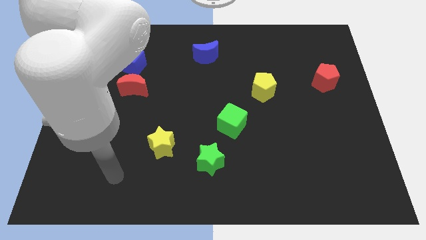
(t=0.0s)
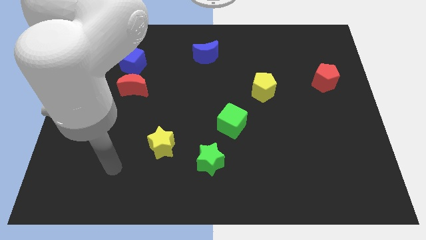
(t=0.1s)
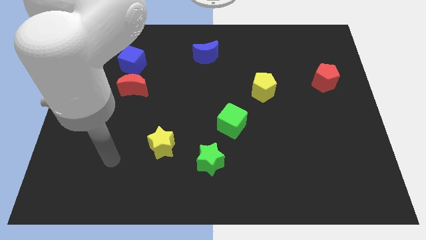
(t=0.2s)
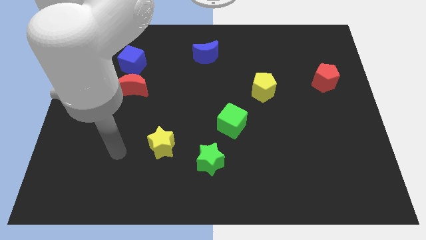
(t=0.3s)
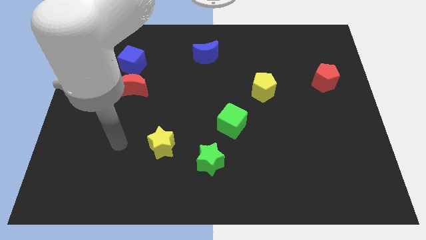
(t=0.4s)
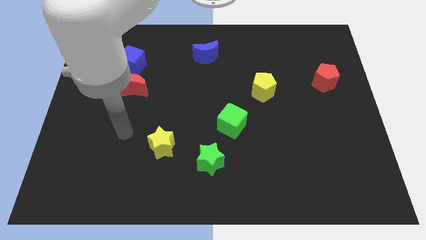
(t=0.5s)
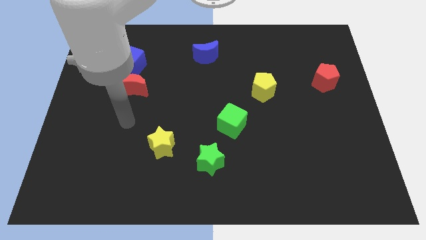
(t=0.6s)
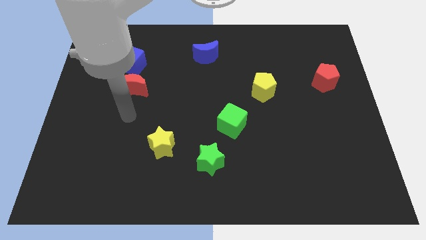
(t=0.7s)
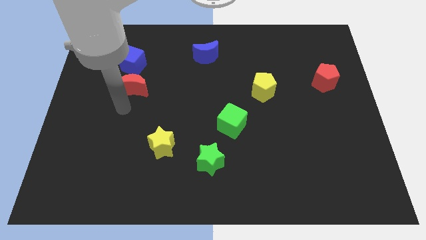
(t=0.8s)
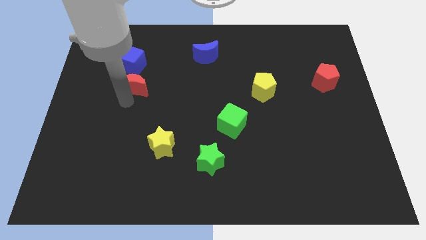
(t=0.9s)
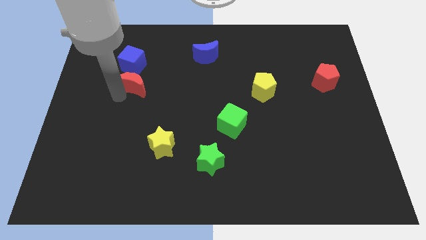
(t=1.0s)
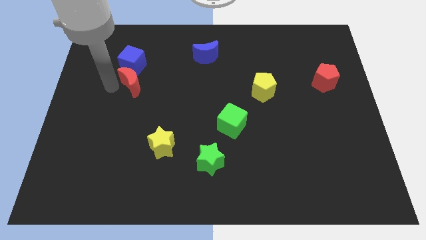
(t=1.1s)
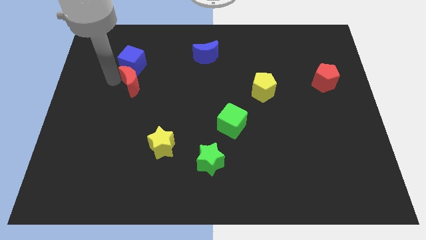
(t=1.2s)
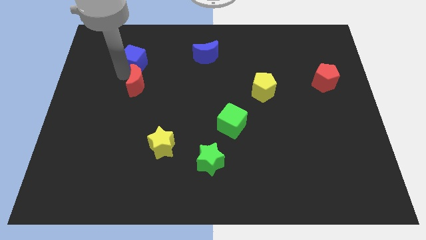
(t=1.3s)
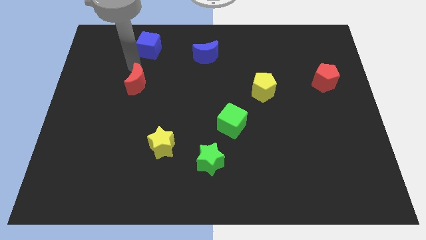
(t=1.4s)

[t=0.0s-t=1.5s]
separate the red moon from the blue cube

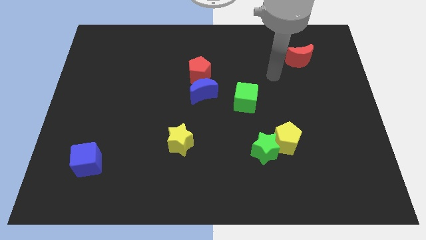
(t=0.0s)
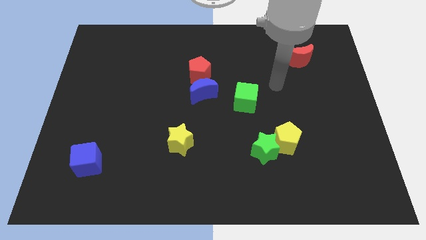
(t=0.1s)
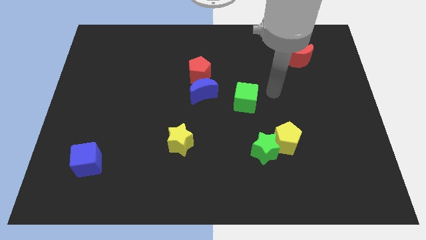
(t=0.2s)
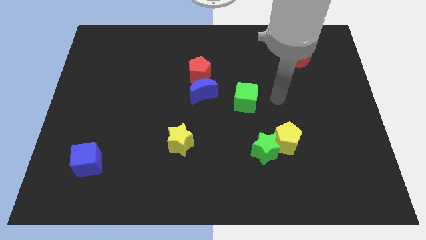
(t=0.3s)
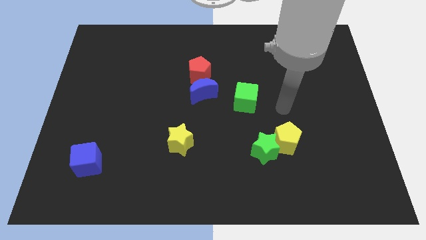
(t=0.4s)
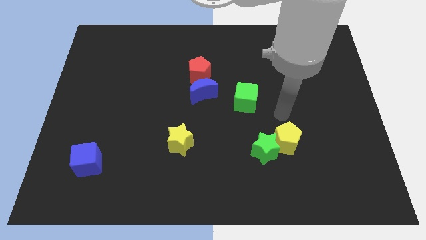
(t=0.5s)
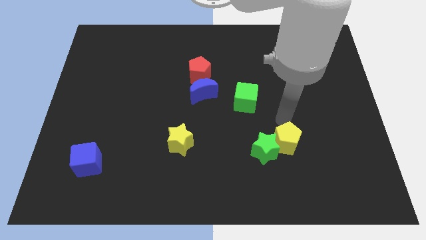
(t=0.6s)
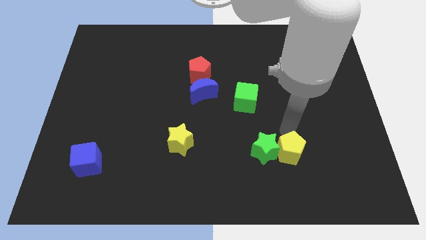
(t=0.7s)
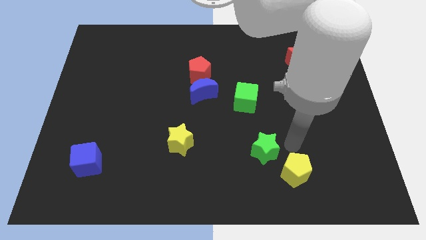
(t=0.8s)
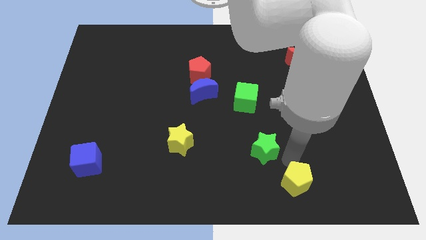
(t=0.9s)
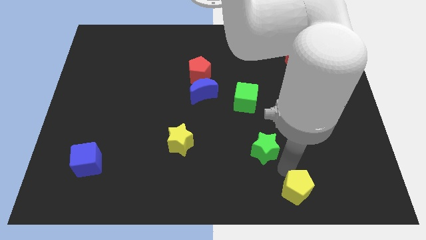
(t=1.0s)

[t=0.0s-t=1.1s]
move the green star away from the yellow pentagon

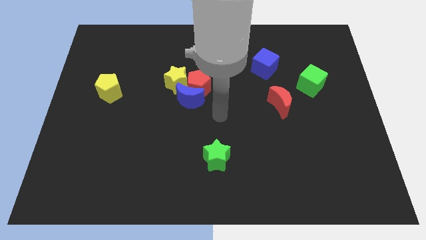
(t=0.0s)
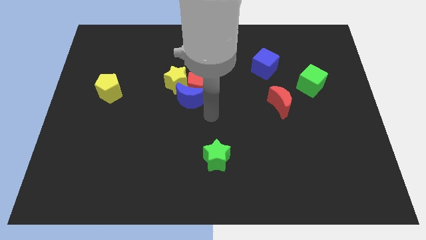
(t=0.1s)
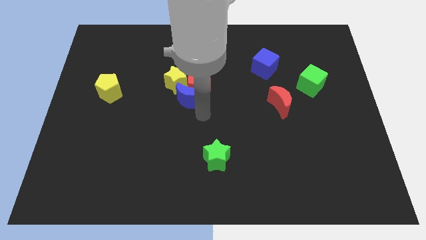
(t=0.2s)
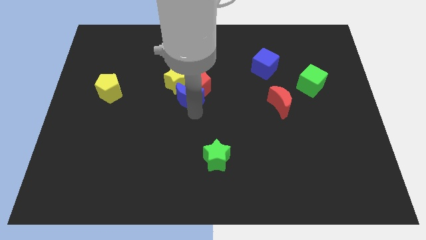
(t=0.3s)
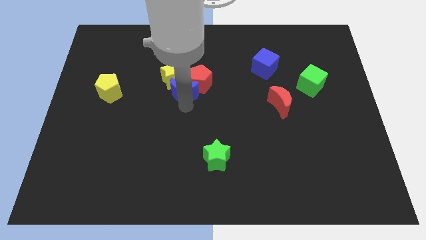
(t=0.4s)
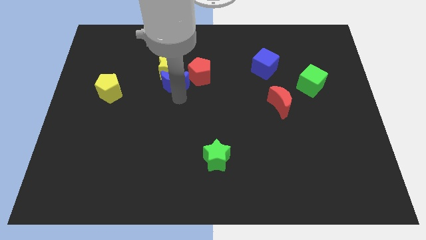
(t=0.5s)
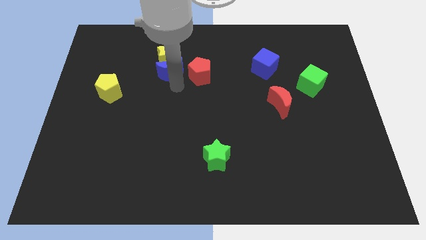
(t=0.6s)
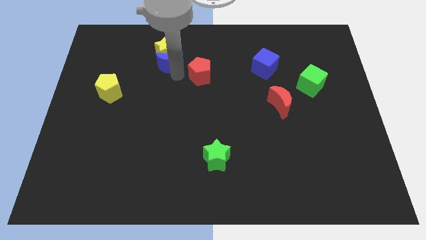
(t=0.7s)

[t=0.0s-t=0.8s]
separate the red pentagon from the blue moon and yellow star

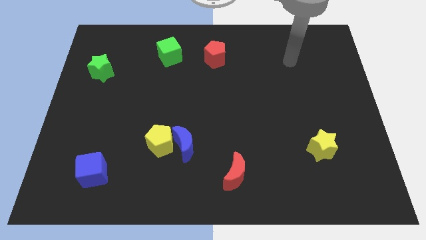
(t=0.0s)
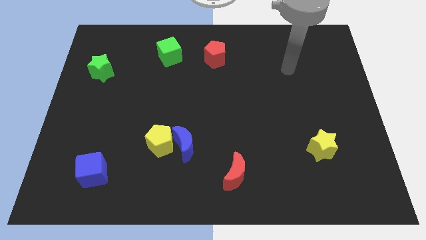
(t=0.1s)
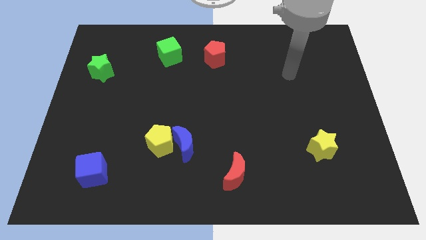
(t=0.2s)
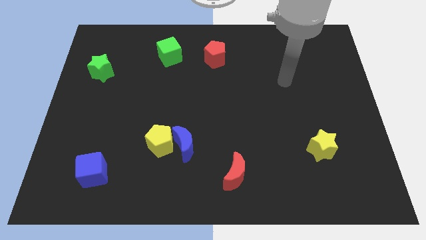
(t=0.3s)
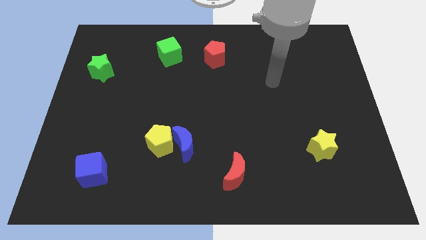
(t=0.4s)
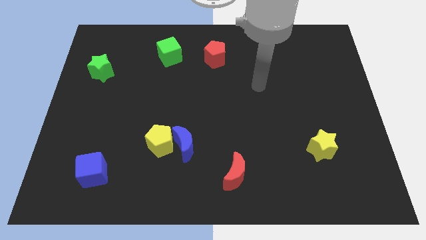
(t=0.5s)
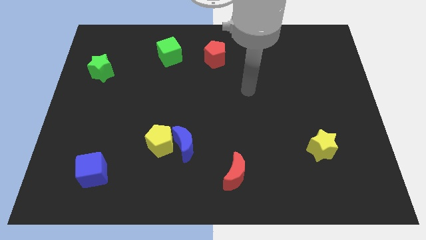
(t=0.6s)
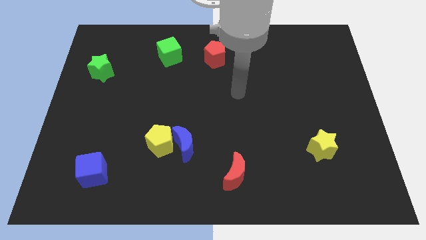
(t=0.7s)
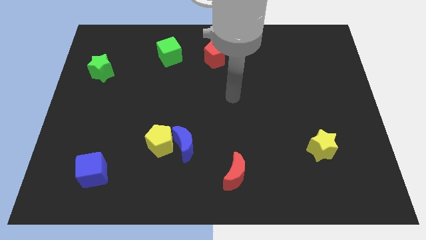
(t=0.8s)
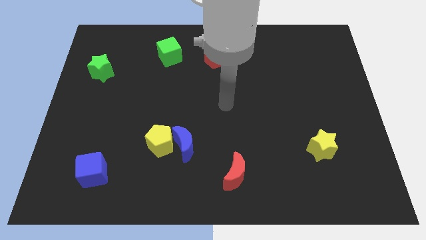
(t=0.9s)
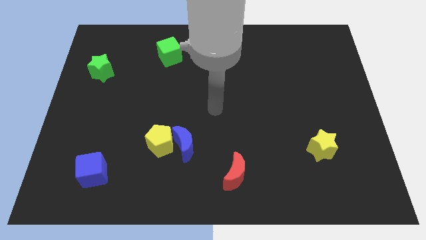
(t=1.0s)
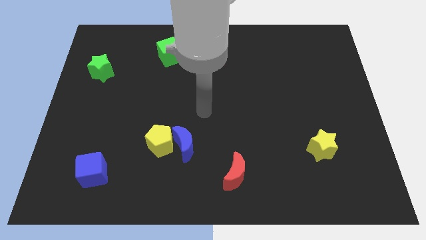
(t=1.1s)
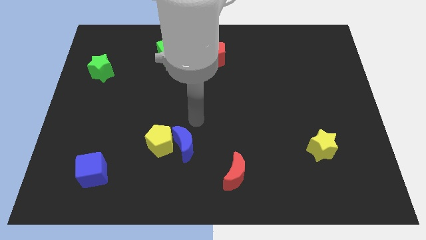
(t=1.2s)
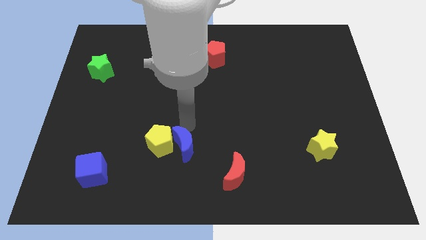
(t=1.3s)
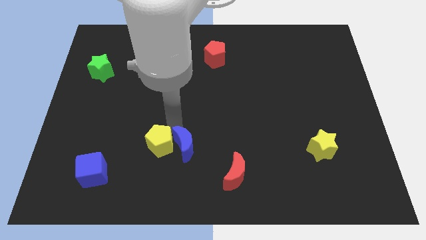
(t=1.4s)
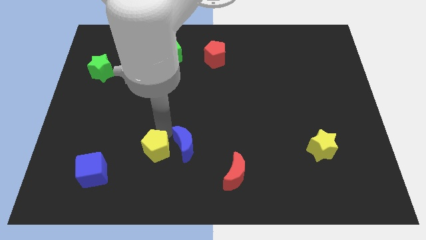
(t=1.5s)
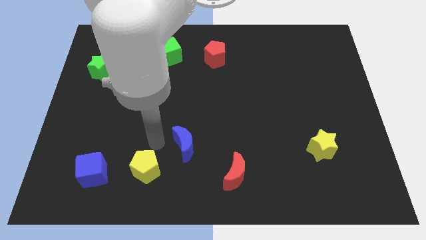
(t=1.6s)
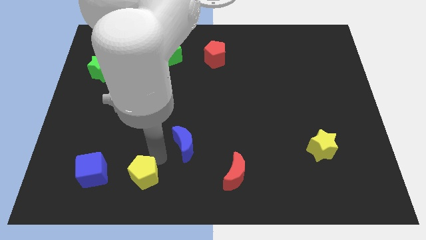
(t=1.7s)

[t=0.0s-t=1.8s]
move the blue moon away from the yellow pentagon

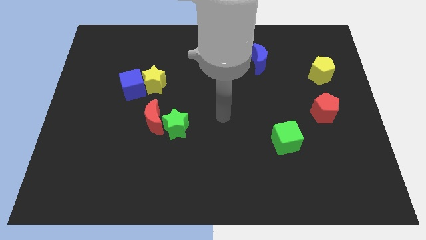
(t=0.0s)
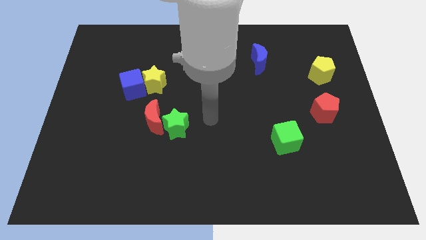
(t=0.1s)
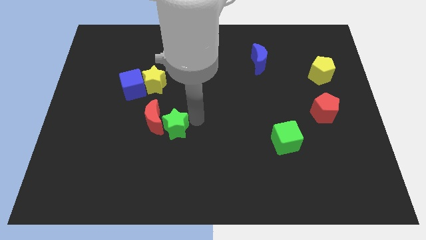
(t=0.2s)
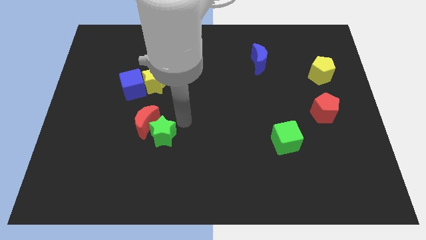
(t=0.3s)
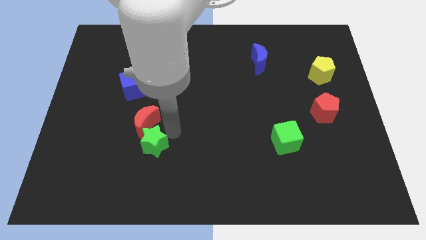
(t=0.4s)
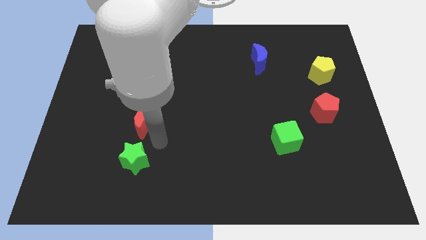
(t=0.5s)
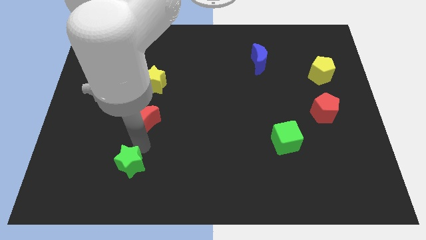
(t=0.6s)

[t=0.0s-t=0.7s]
separate the red moon from the green star

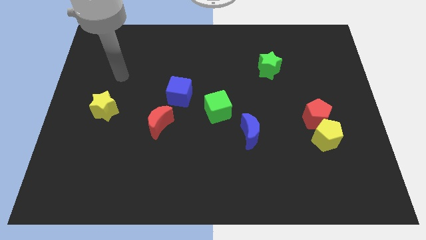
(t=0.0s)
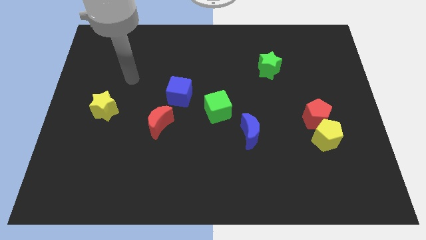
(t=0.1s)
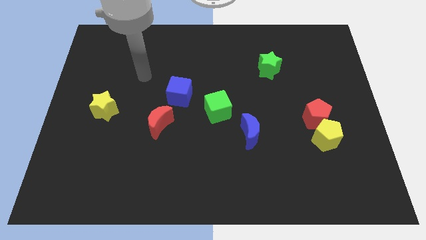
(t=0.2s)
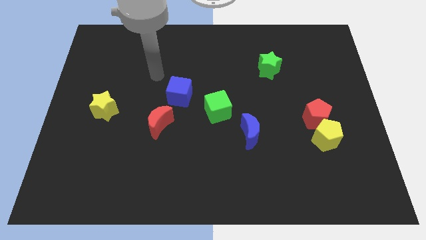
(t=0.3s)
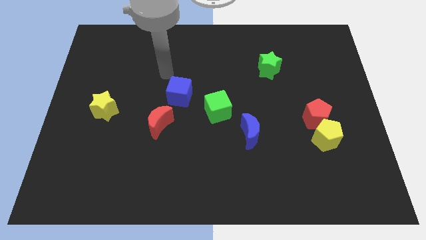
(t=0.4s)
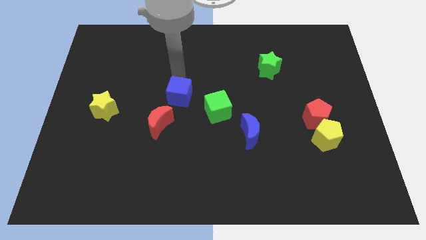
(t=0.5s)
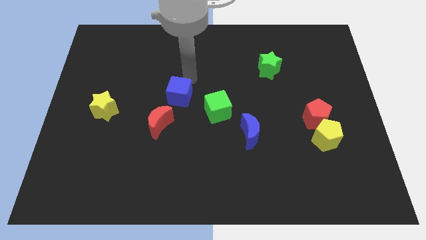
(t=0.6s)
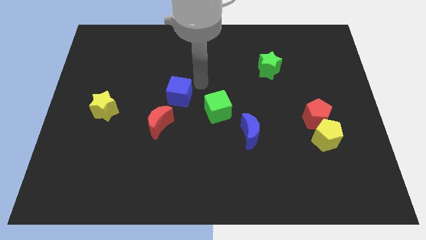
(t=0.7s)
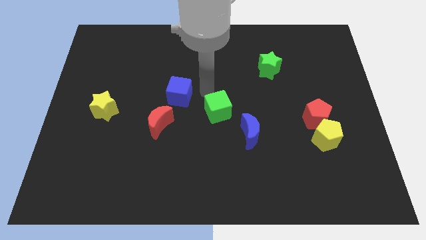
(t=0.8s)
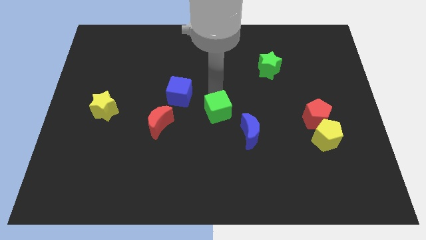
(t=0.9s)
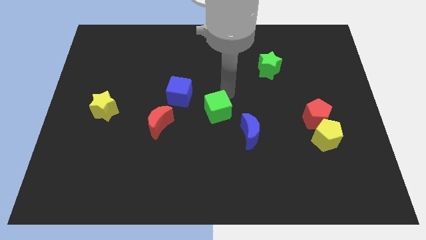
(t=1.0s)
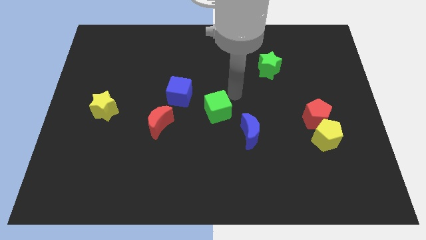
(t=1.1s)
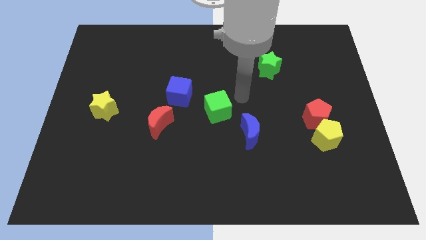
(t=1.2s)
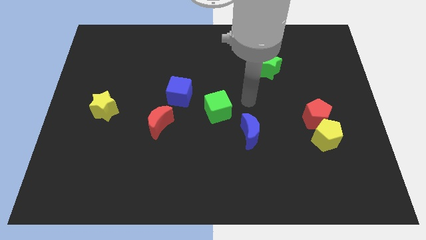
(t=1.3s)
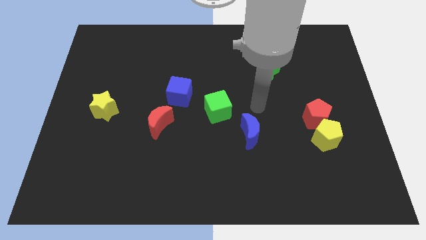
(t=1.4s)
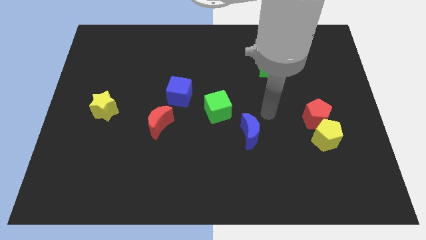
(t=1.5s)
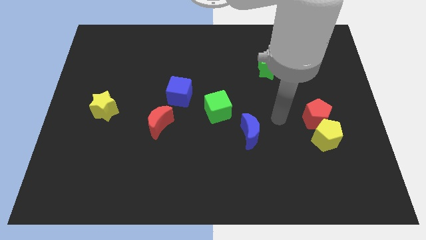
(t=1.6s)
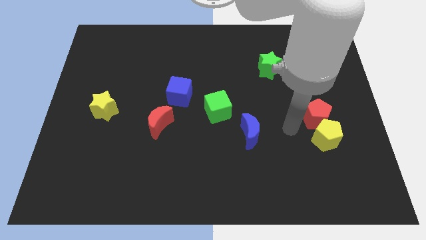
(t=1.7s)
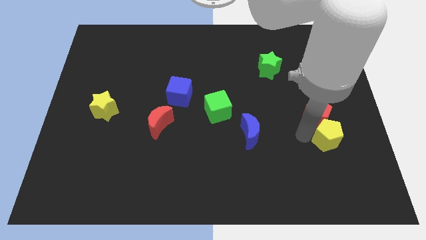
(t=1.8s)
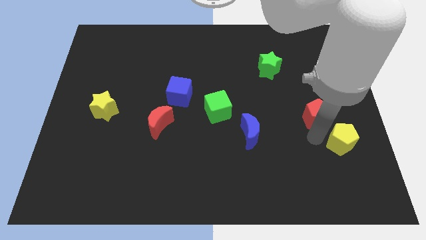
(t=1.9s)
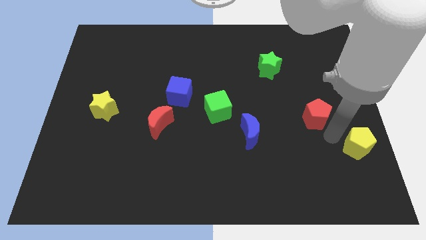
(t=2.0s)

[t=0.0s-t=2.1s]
pull the red pentagon apart from the yellow pentagon

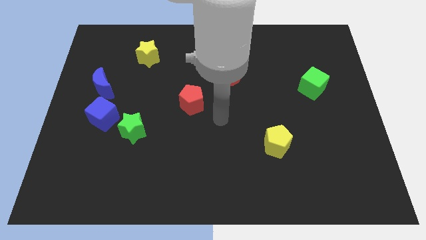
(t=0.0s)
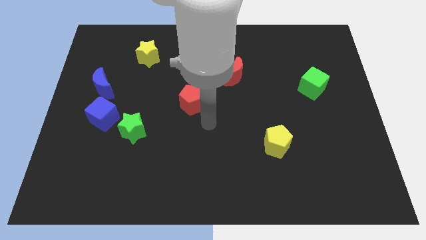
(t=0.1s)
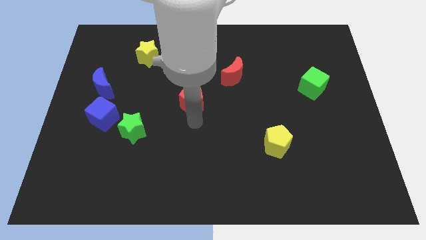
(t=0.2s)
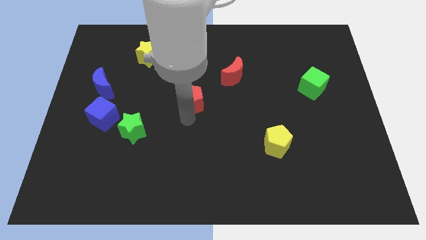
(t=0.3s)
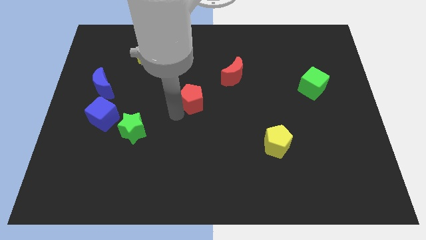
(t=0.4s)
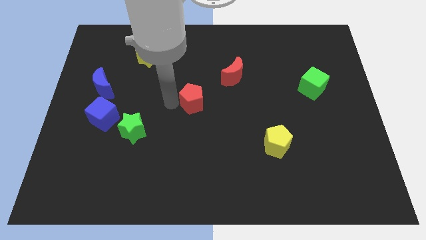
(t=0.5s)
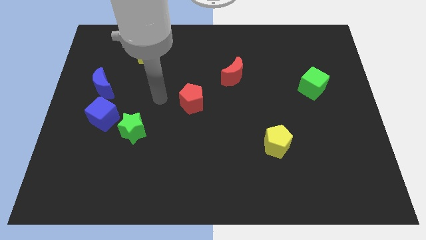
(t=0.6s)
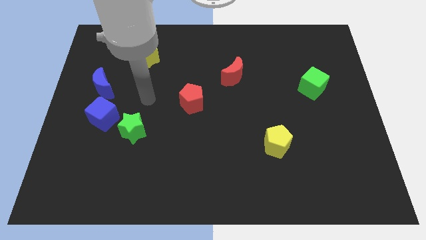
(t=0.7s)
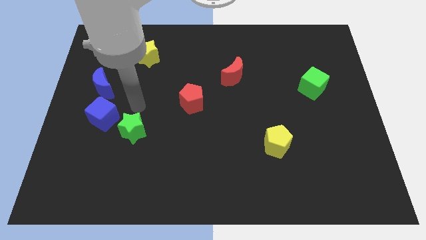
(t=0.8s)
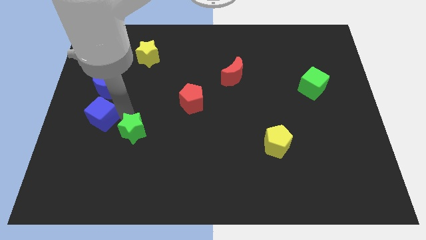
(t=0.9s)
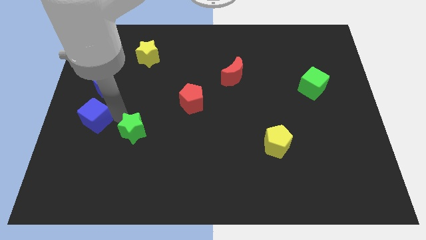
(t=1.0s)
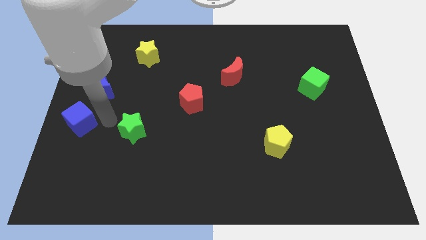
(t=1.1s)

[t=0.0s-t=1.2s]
move the green star away from the blue cube
